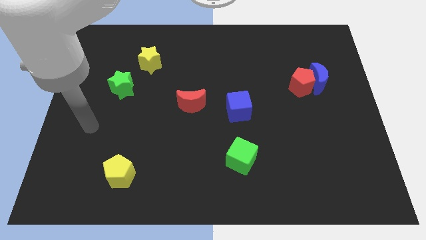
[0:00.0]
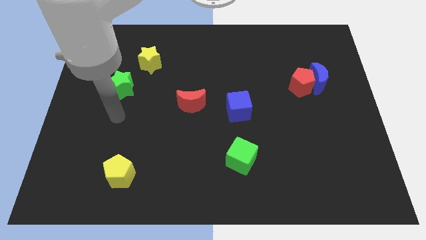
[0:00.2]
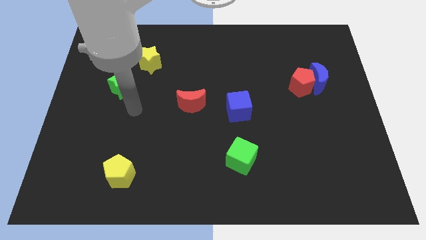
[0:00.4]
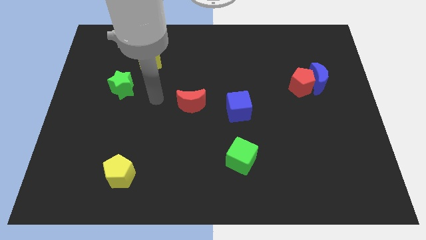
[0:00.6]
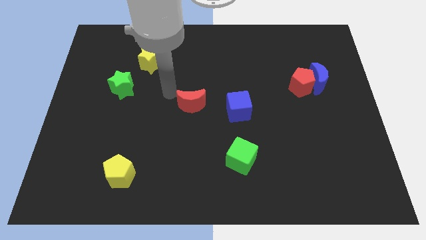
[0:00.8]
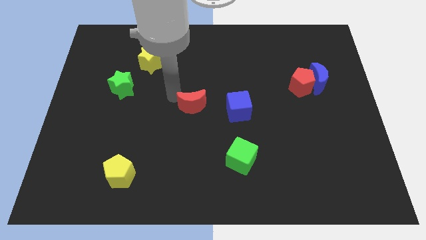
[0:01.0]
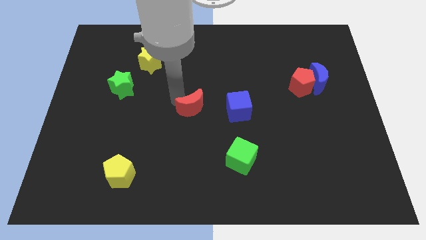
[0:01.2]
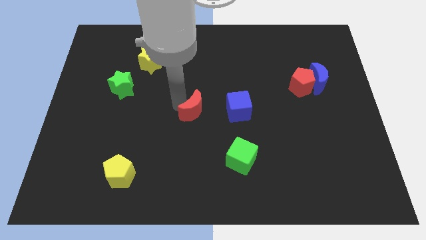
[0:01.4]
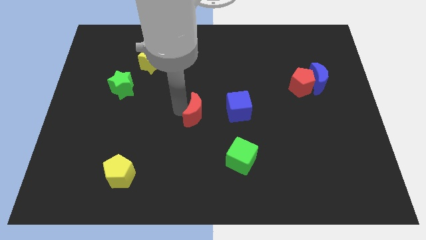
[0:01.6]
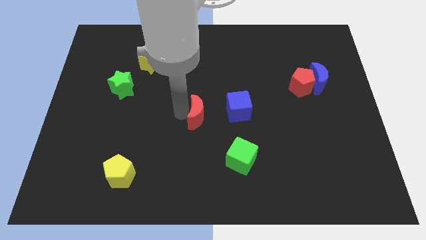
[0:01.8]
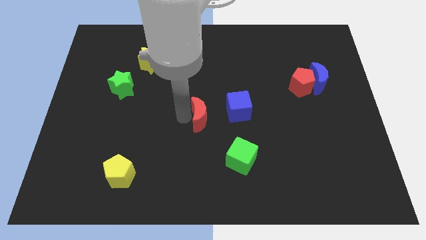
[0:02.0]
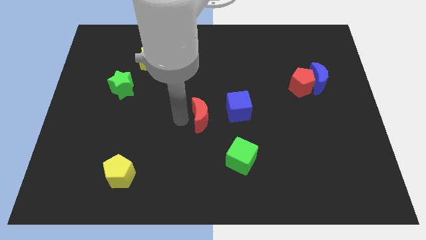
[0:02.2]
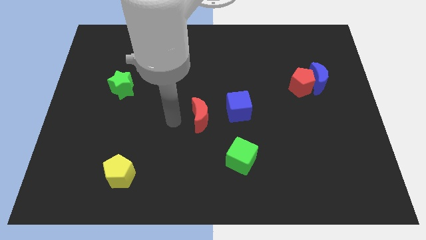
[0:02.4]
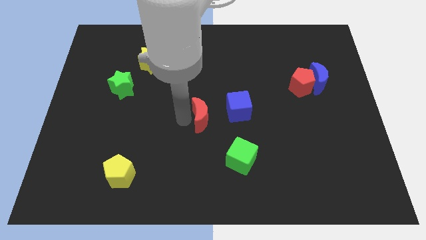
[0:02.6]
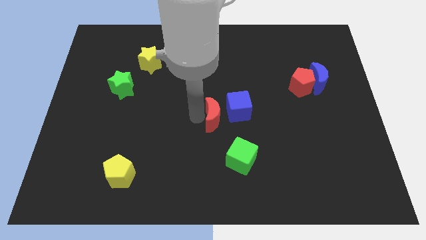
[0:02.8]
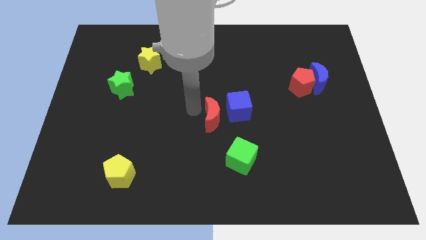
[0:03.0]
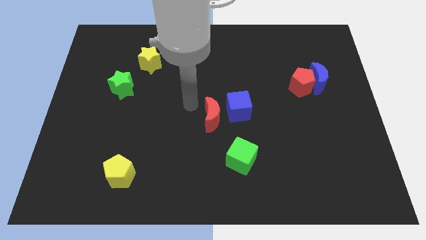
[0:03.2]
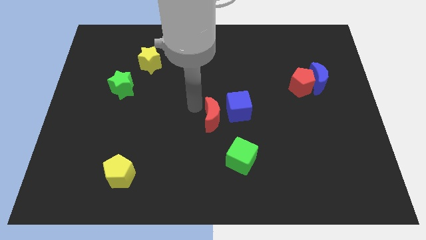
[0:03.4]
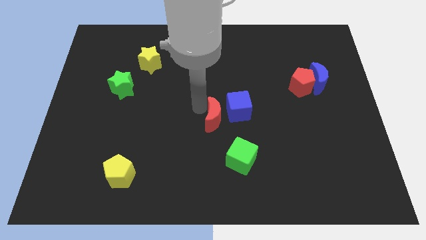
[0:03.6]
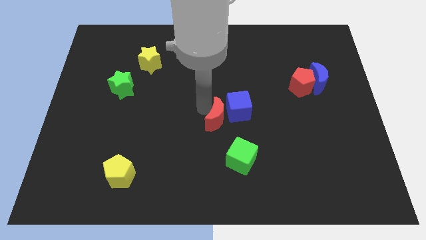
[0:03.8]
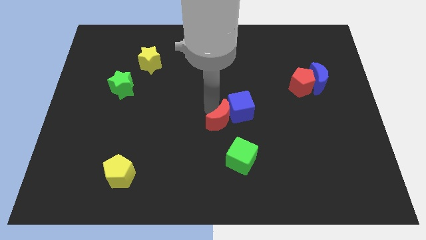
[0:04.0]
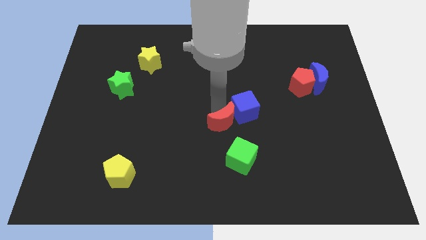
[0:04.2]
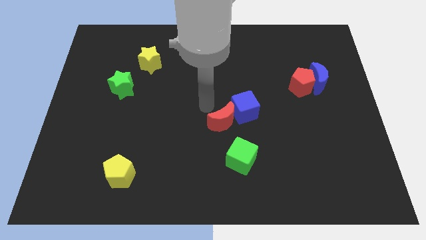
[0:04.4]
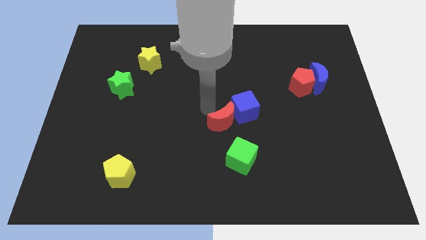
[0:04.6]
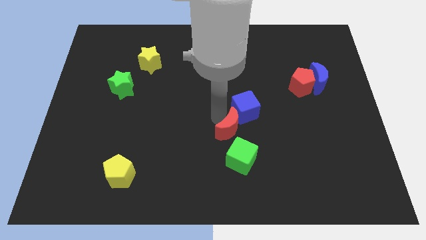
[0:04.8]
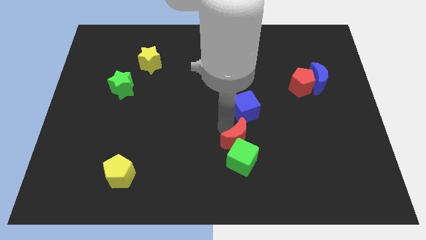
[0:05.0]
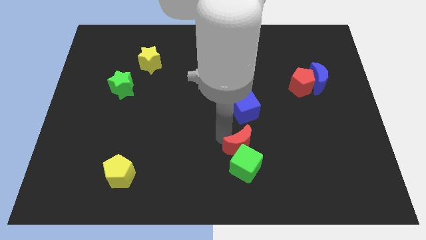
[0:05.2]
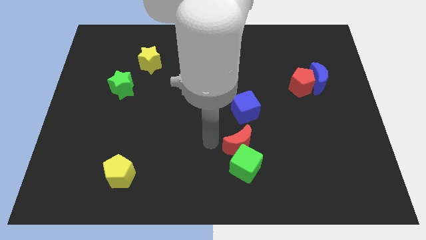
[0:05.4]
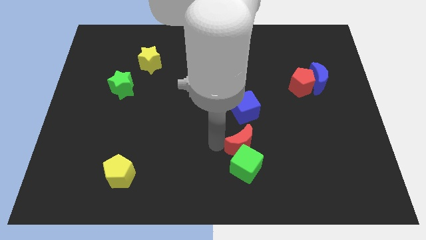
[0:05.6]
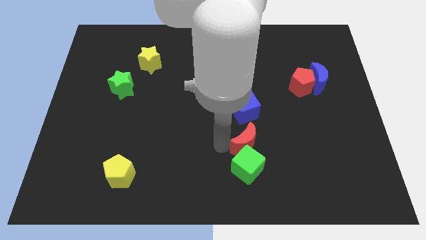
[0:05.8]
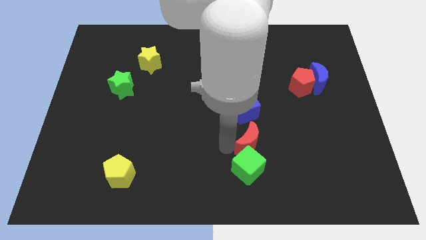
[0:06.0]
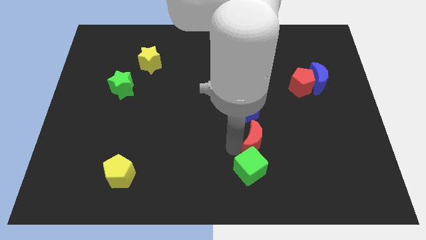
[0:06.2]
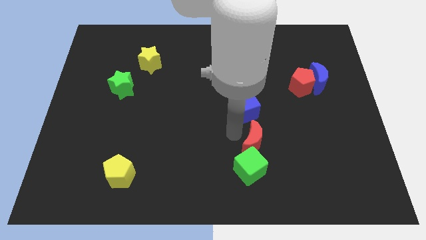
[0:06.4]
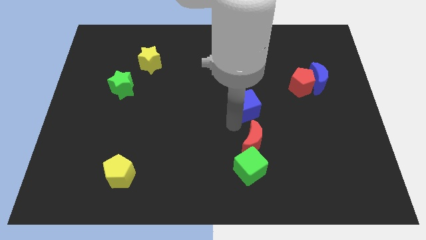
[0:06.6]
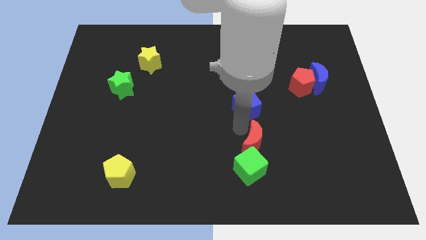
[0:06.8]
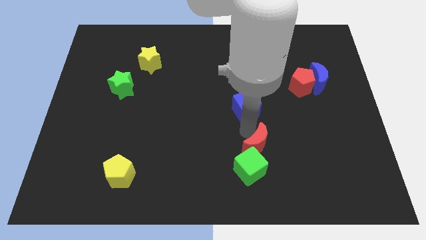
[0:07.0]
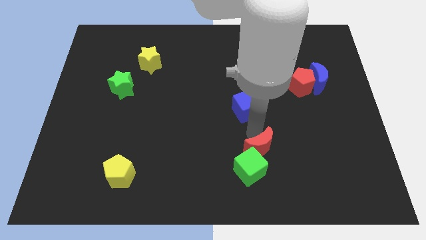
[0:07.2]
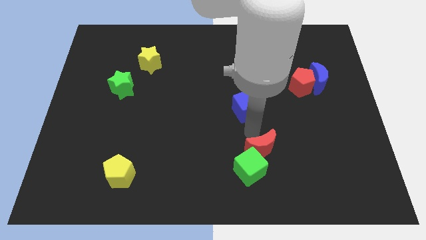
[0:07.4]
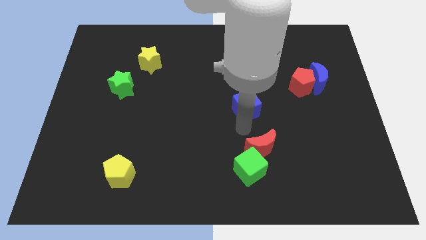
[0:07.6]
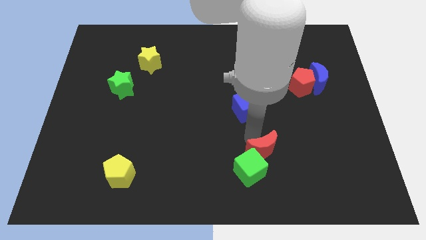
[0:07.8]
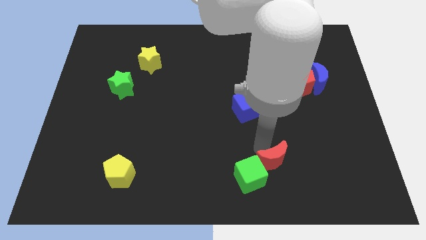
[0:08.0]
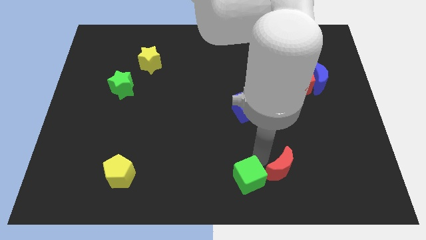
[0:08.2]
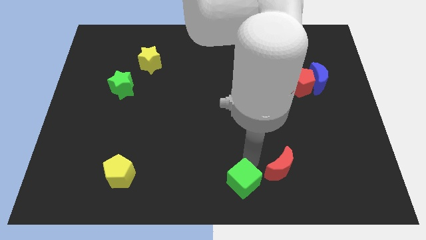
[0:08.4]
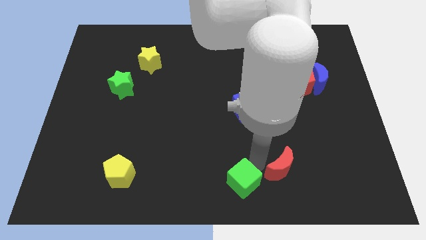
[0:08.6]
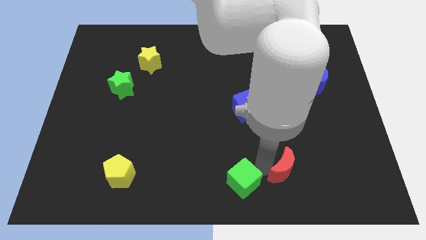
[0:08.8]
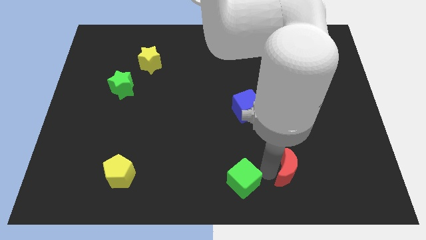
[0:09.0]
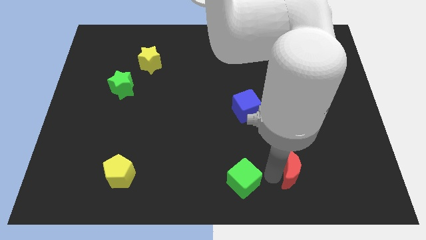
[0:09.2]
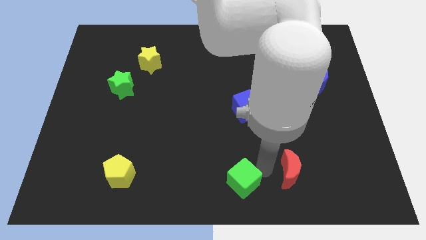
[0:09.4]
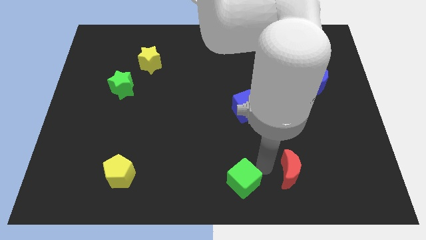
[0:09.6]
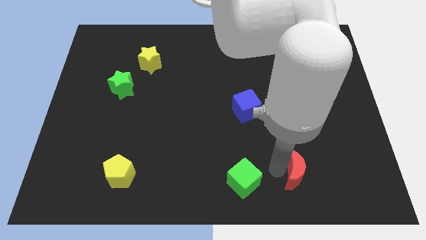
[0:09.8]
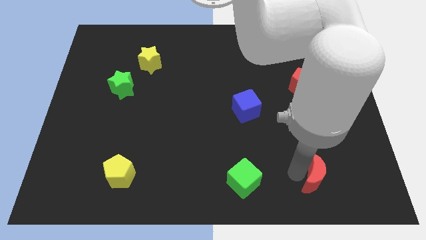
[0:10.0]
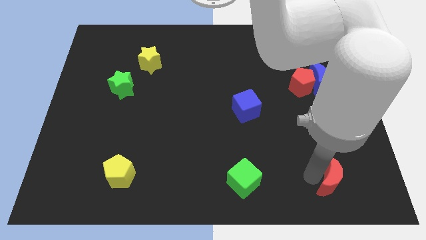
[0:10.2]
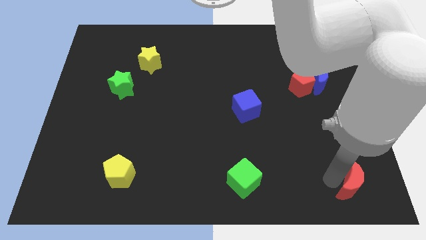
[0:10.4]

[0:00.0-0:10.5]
slide the red moon to the lower right corner

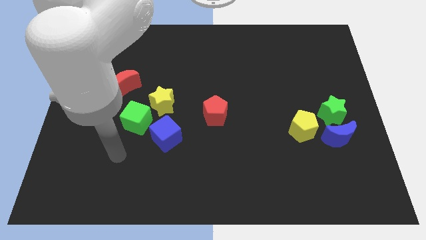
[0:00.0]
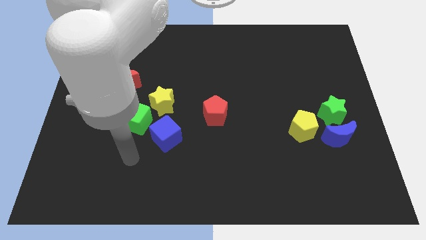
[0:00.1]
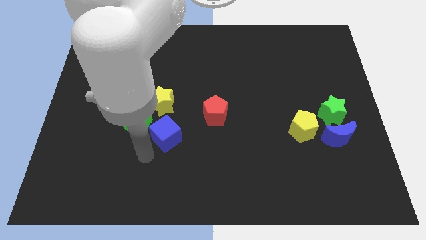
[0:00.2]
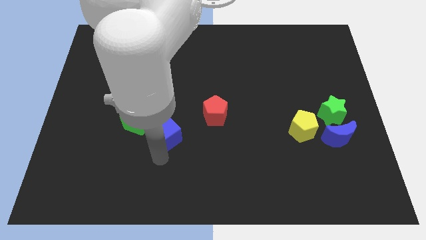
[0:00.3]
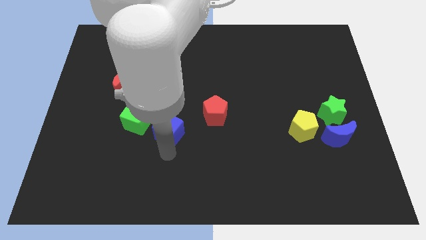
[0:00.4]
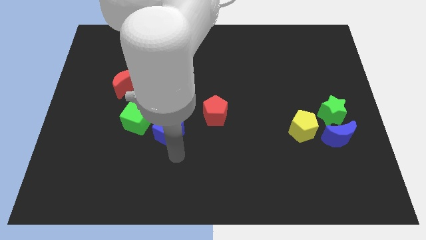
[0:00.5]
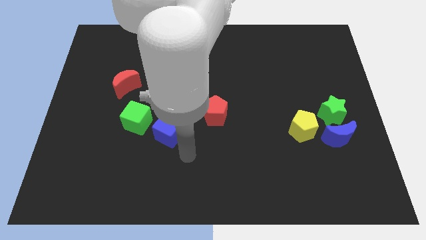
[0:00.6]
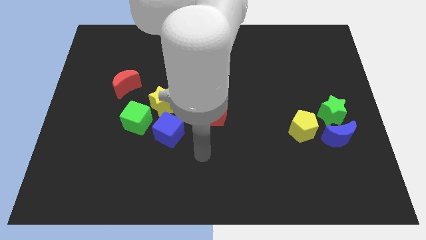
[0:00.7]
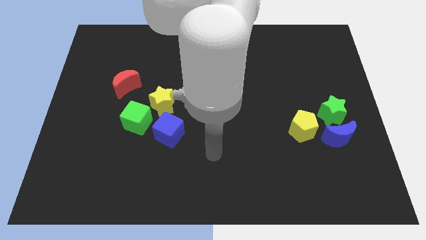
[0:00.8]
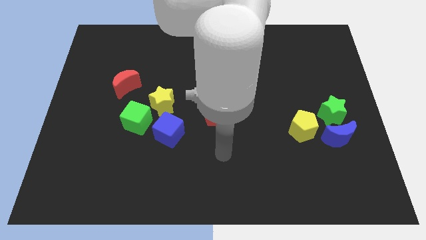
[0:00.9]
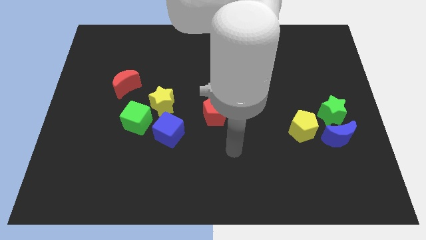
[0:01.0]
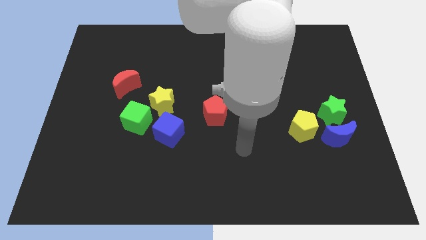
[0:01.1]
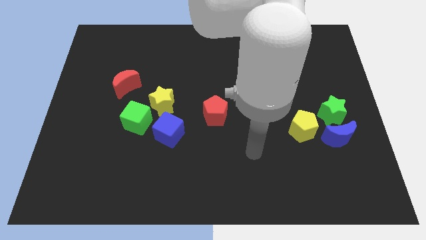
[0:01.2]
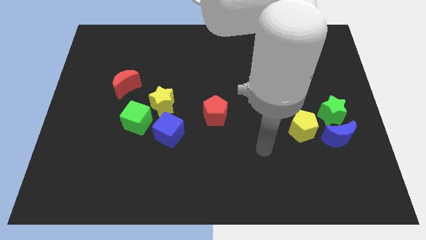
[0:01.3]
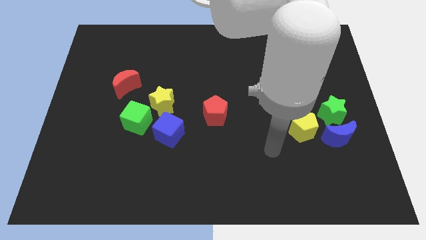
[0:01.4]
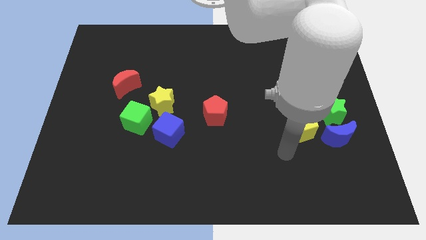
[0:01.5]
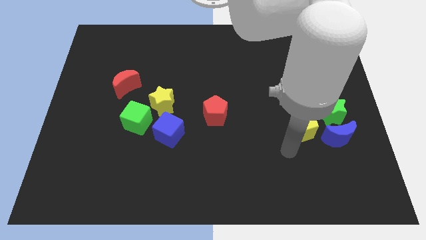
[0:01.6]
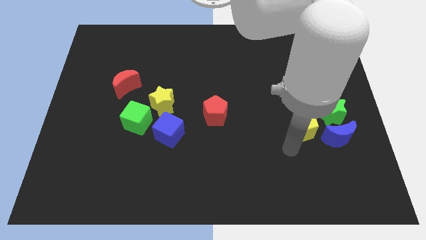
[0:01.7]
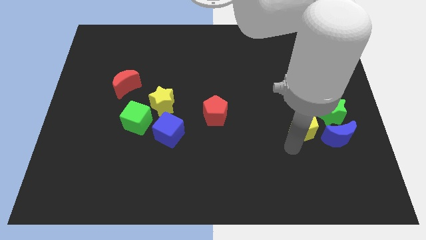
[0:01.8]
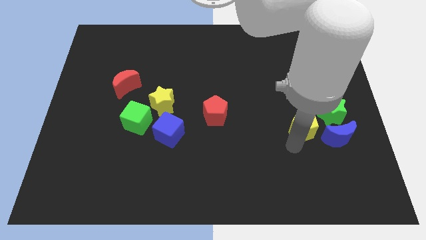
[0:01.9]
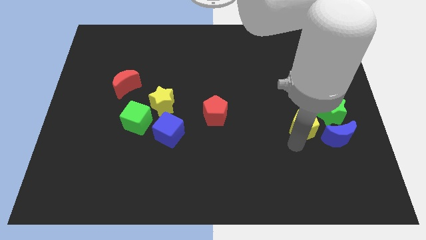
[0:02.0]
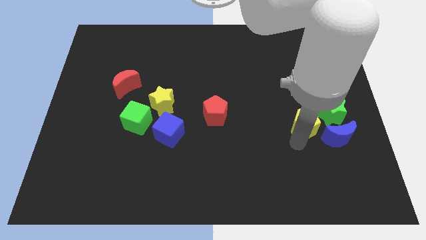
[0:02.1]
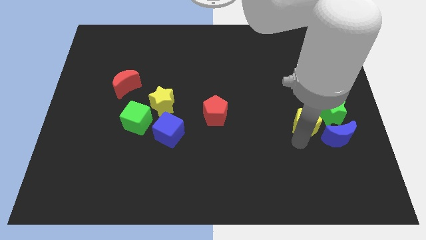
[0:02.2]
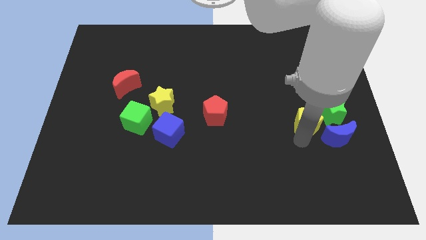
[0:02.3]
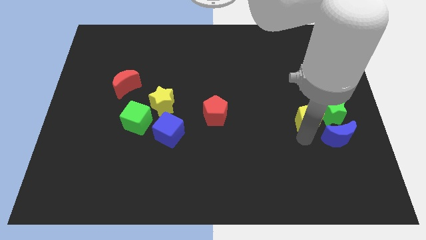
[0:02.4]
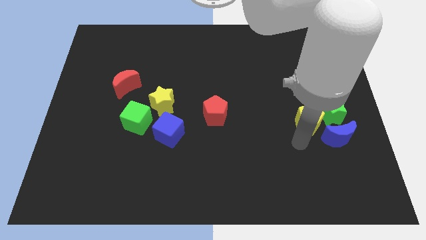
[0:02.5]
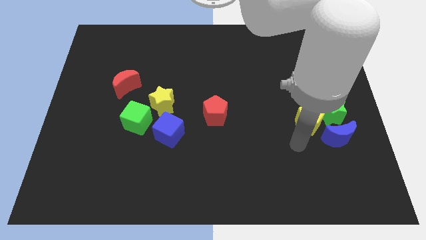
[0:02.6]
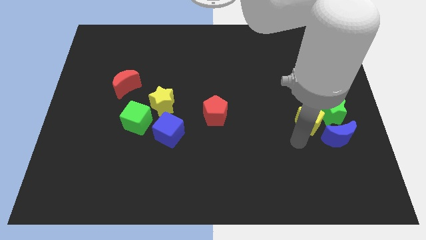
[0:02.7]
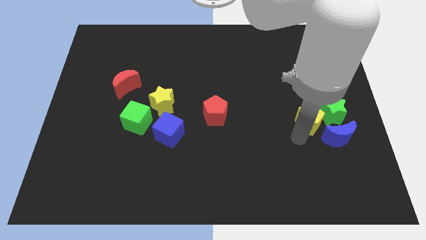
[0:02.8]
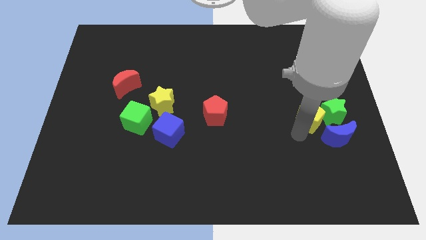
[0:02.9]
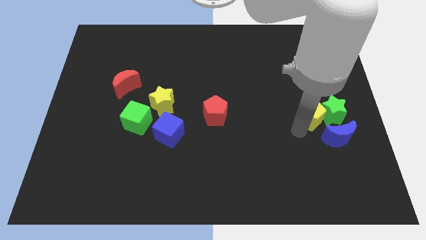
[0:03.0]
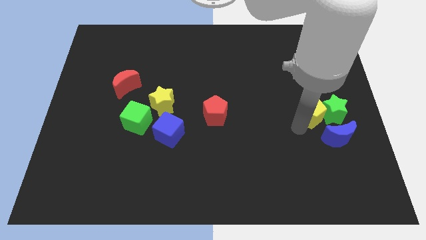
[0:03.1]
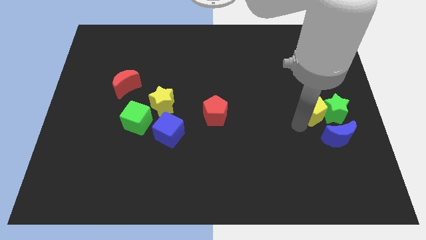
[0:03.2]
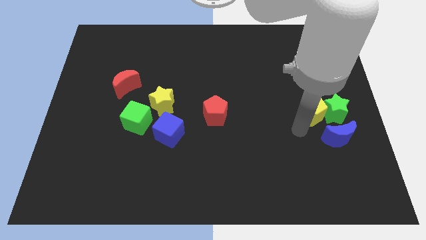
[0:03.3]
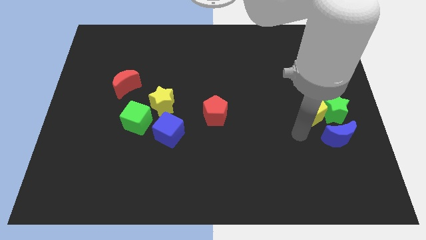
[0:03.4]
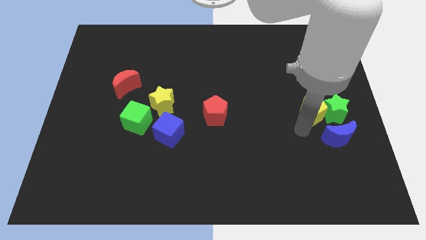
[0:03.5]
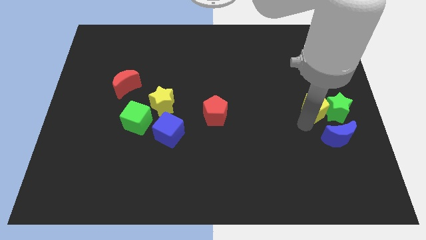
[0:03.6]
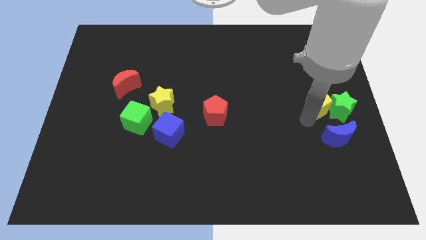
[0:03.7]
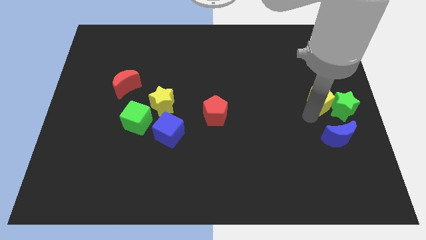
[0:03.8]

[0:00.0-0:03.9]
push the yellow pentagon to the right side
